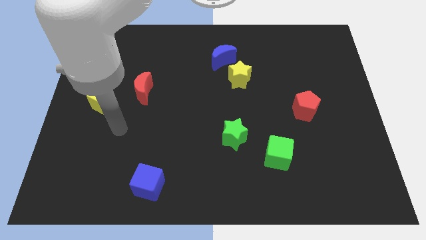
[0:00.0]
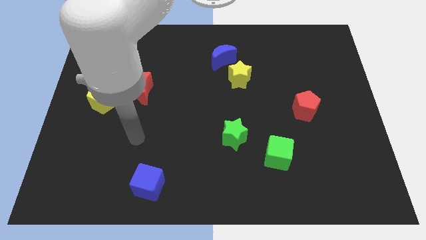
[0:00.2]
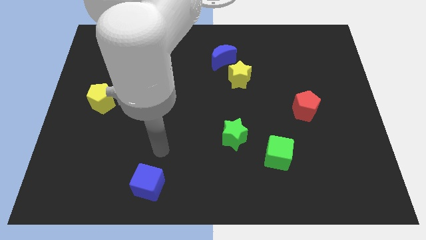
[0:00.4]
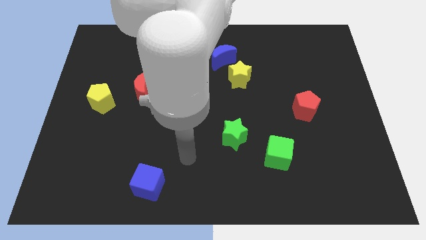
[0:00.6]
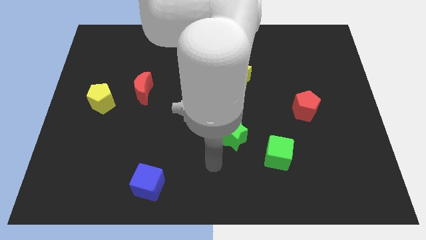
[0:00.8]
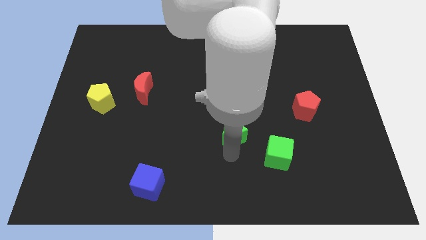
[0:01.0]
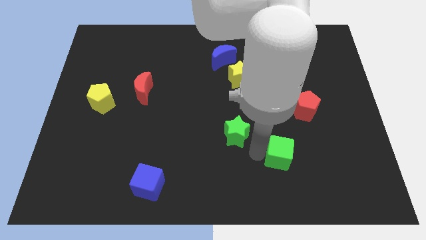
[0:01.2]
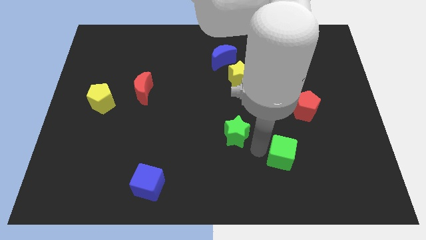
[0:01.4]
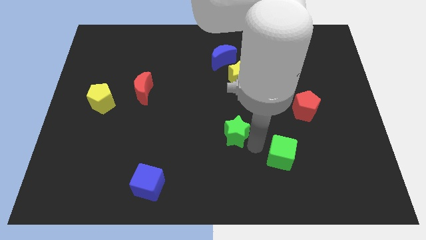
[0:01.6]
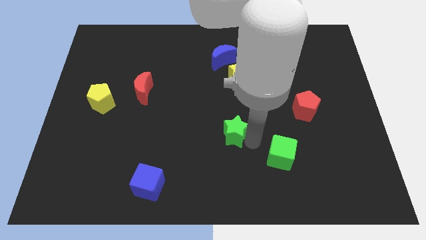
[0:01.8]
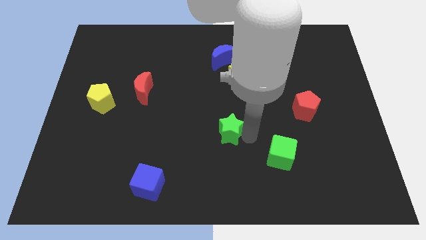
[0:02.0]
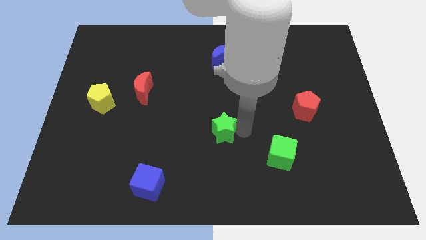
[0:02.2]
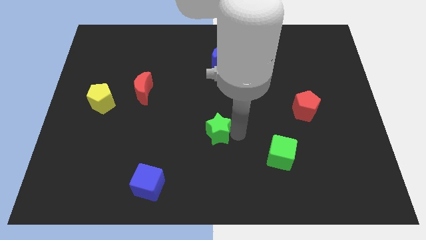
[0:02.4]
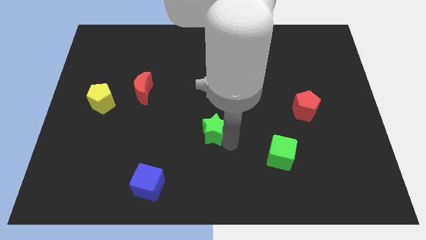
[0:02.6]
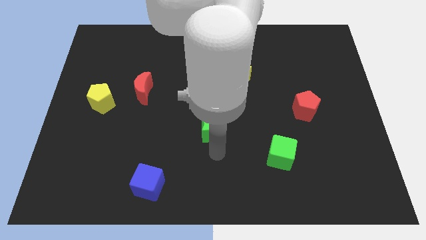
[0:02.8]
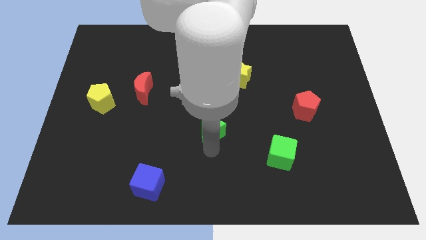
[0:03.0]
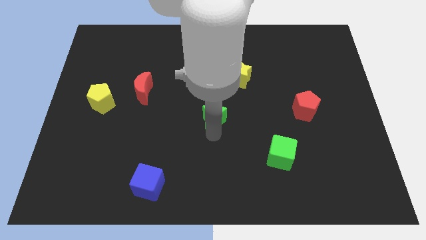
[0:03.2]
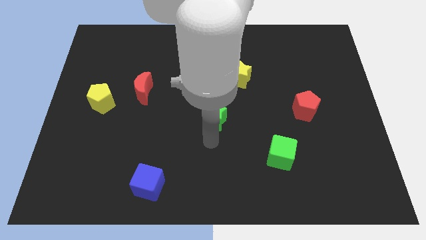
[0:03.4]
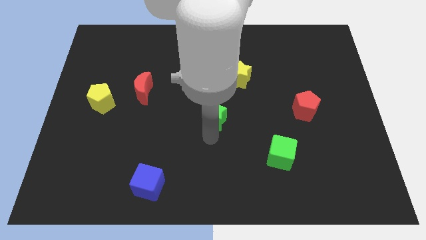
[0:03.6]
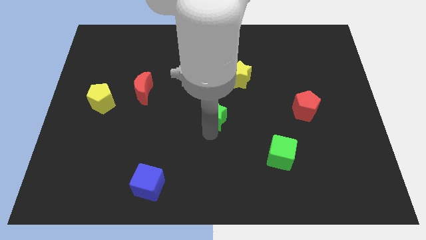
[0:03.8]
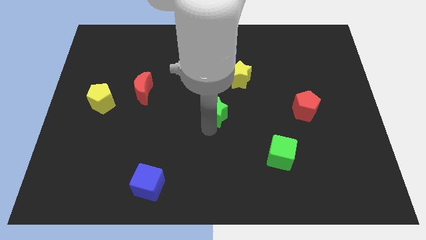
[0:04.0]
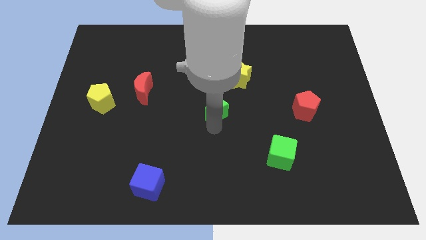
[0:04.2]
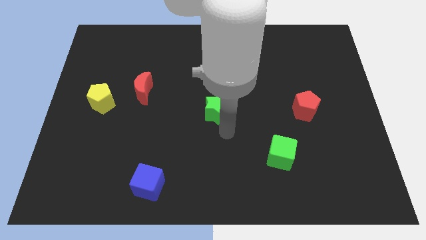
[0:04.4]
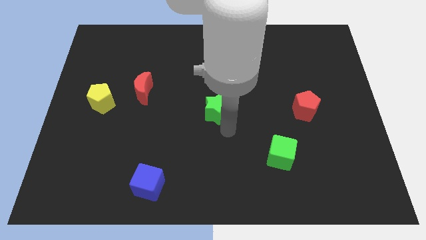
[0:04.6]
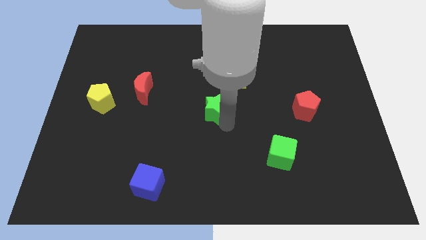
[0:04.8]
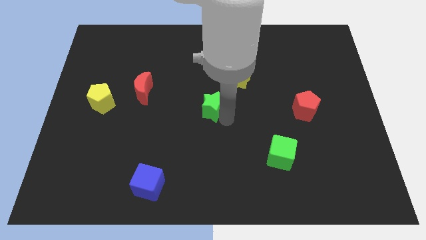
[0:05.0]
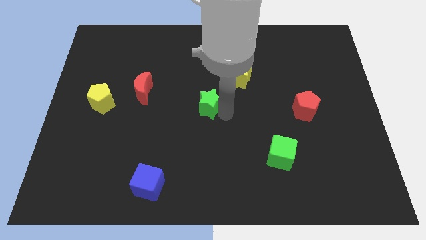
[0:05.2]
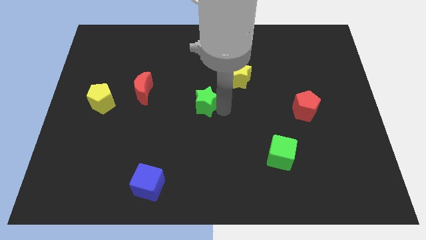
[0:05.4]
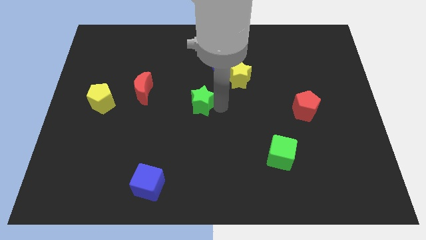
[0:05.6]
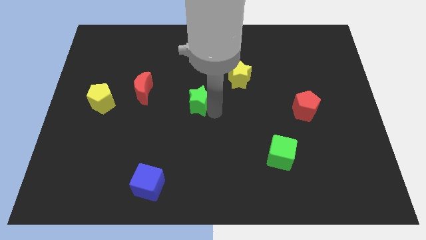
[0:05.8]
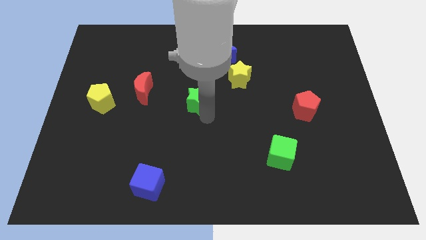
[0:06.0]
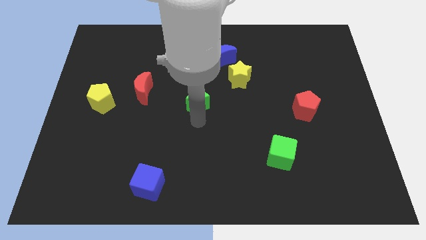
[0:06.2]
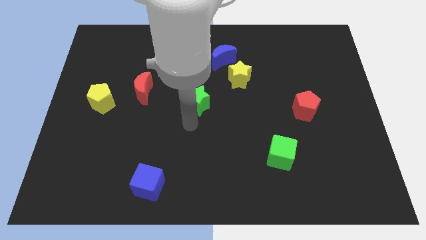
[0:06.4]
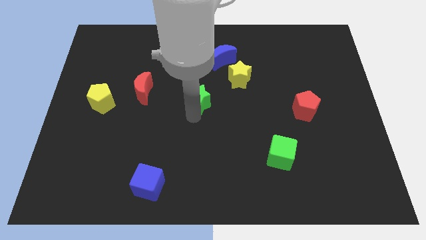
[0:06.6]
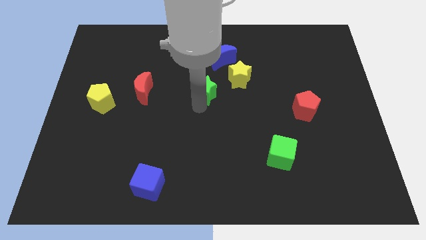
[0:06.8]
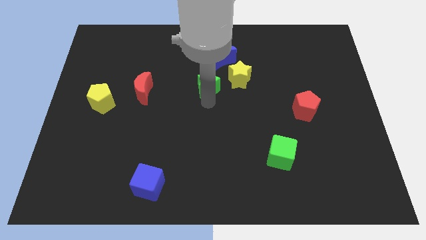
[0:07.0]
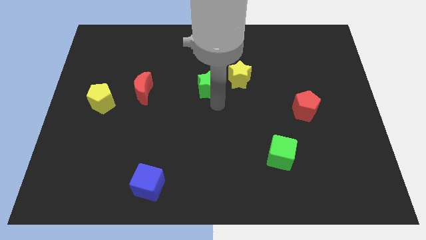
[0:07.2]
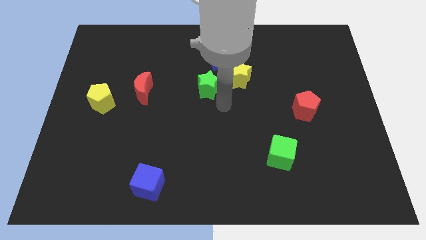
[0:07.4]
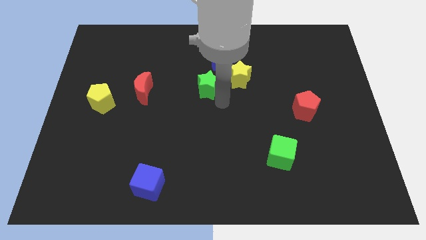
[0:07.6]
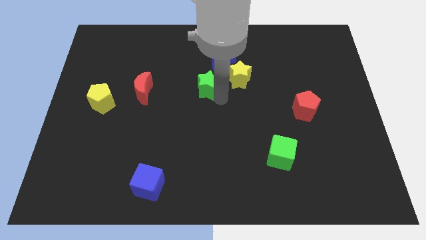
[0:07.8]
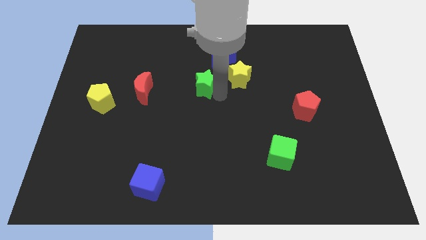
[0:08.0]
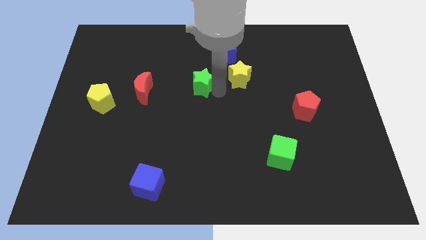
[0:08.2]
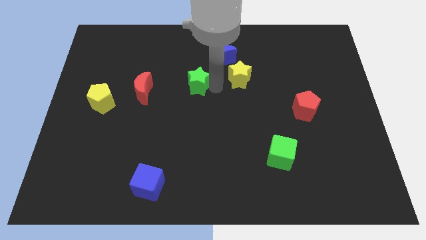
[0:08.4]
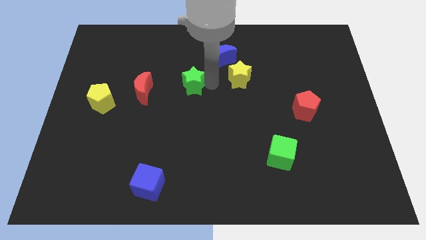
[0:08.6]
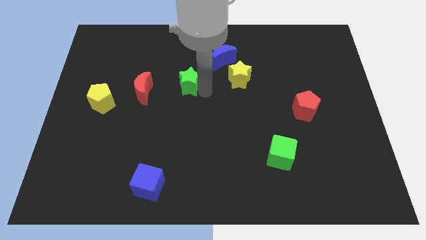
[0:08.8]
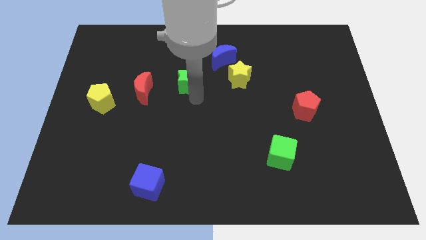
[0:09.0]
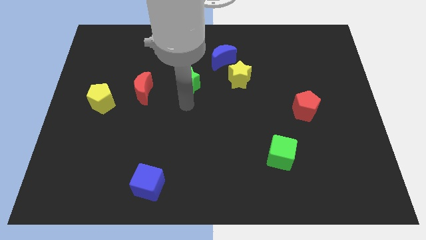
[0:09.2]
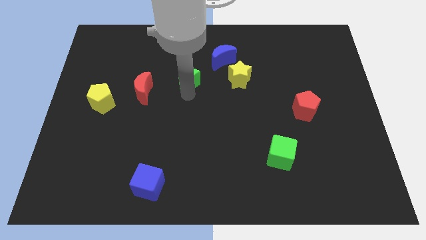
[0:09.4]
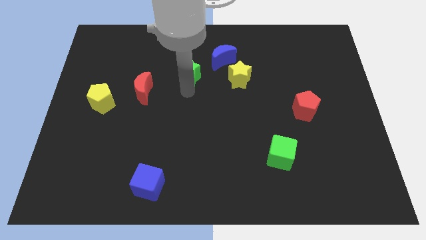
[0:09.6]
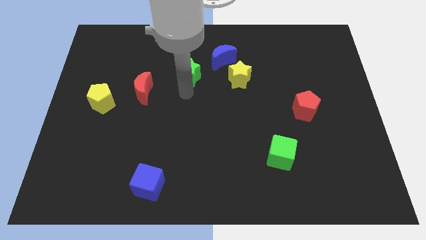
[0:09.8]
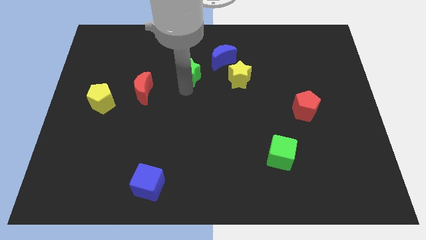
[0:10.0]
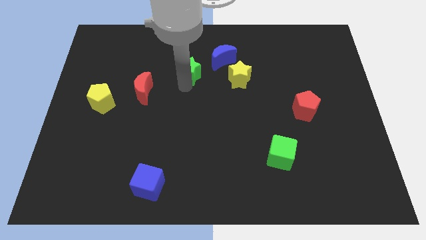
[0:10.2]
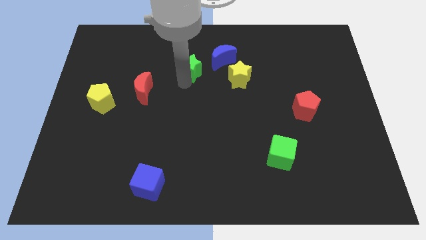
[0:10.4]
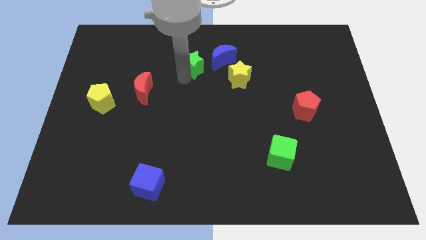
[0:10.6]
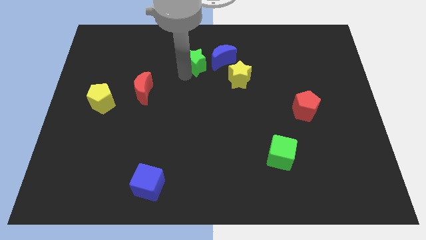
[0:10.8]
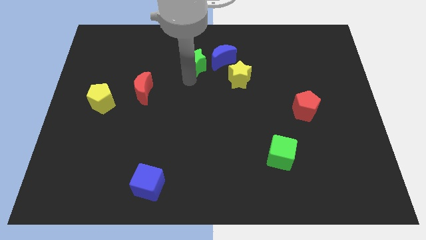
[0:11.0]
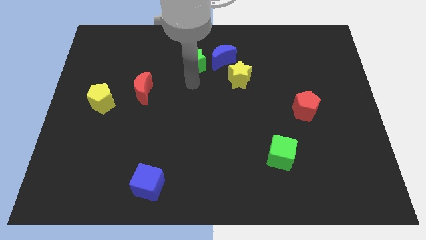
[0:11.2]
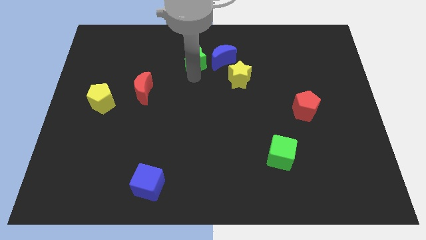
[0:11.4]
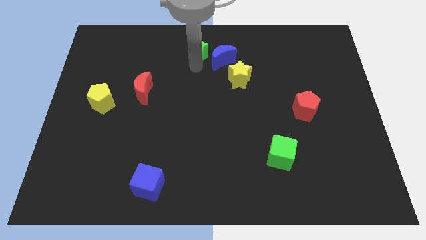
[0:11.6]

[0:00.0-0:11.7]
put the green star to the towards your base

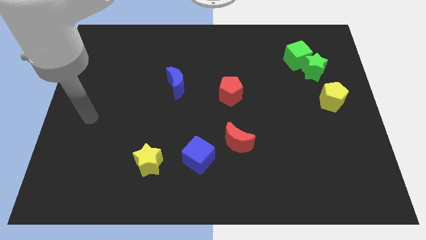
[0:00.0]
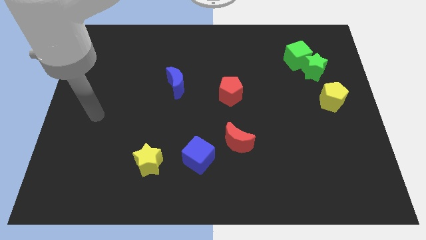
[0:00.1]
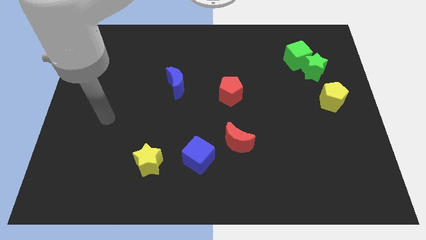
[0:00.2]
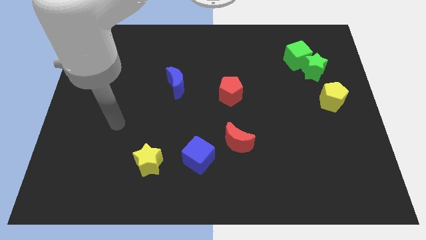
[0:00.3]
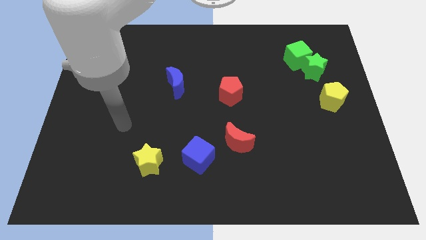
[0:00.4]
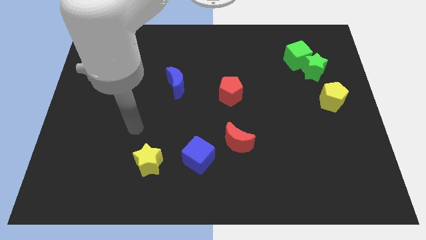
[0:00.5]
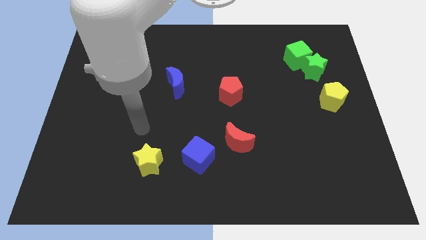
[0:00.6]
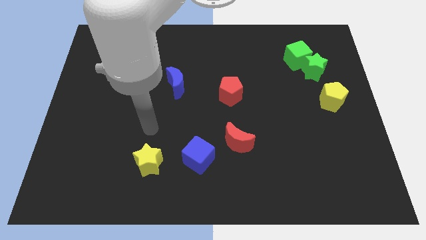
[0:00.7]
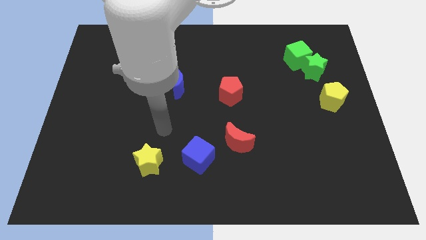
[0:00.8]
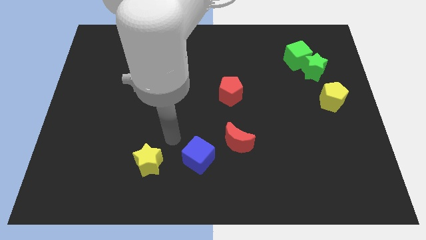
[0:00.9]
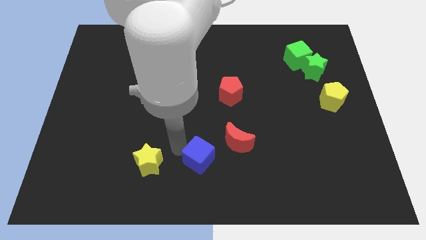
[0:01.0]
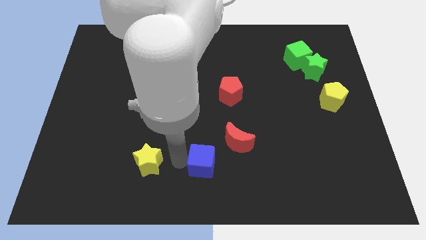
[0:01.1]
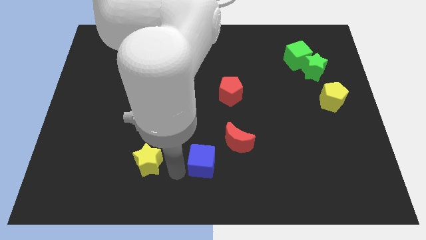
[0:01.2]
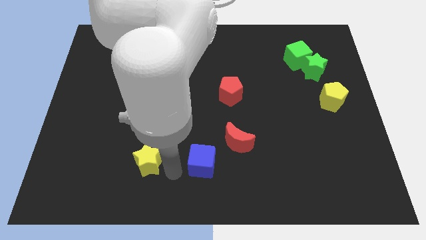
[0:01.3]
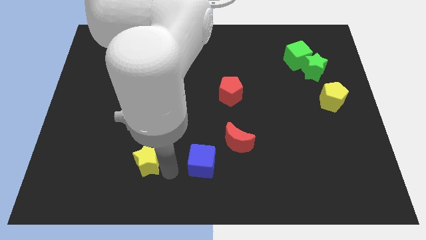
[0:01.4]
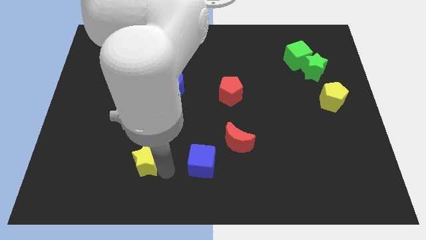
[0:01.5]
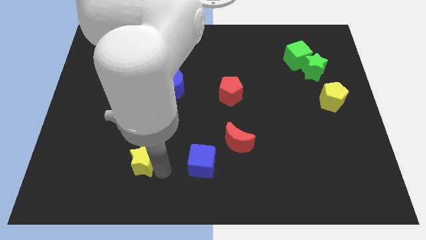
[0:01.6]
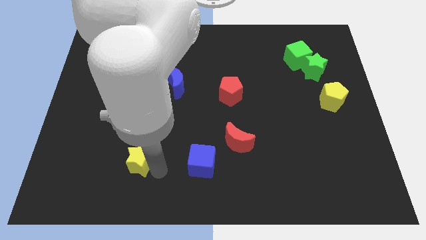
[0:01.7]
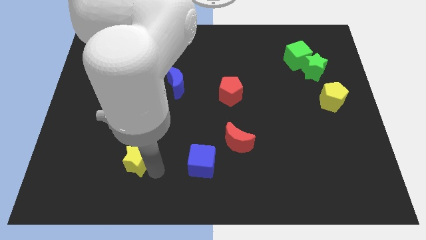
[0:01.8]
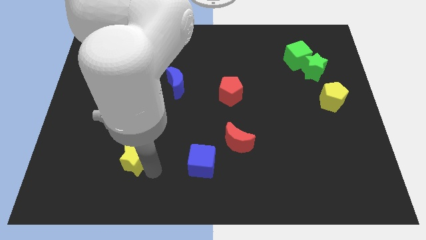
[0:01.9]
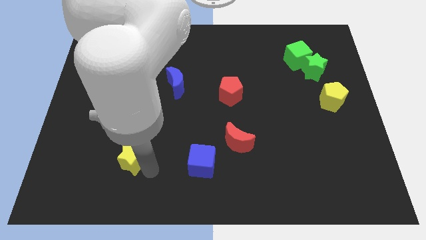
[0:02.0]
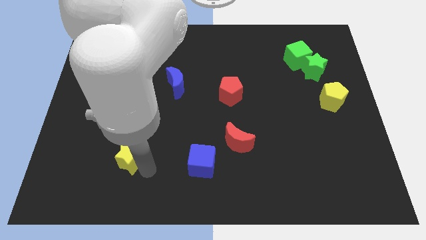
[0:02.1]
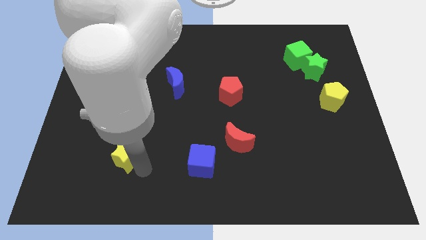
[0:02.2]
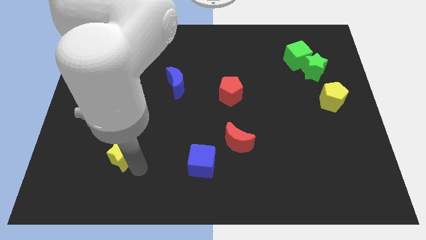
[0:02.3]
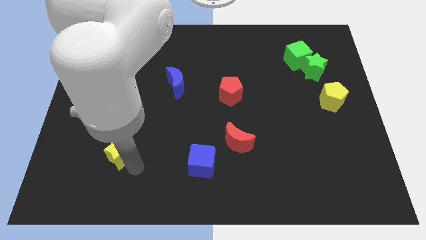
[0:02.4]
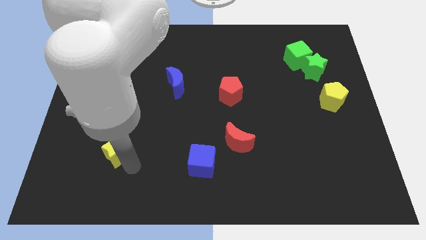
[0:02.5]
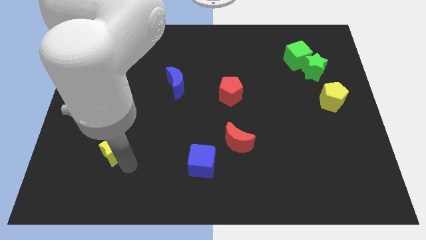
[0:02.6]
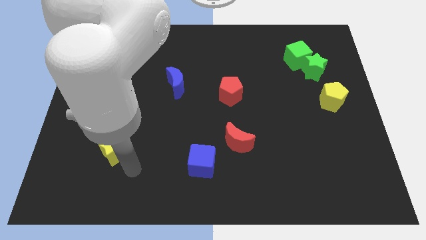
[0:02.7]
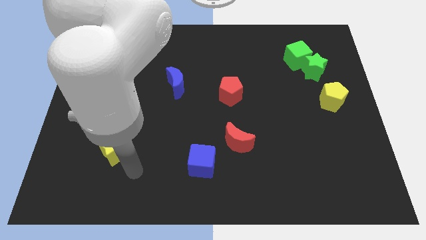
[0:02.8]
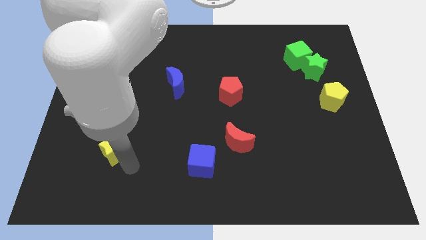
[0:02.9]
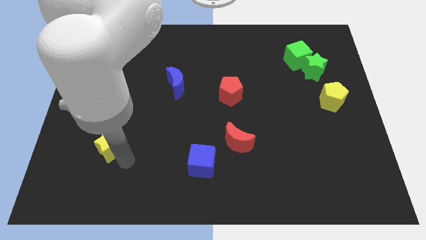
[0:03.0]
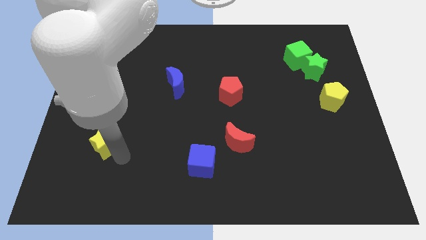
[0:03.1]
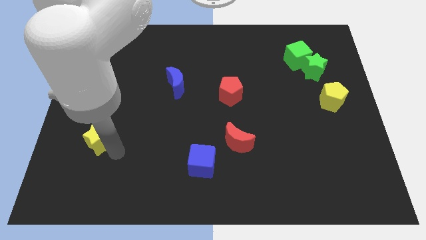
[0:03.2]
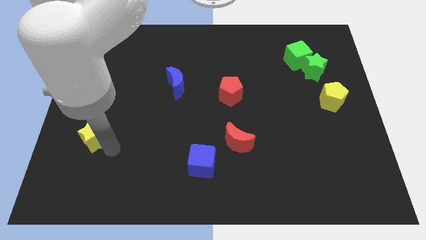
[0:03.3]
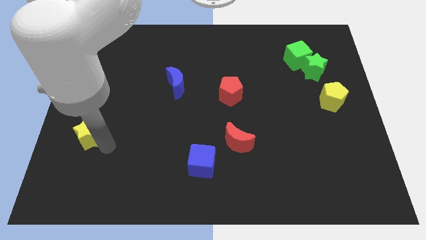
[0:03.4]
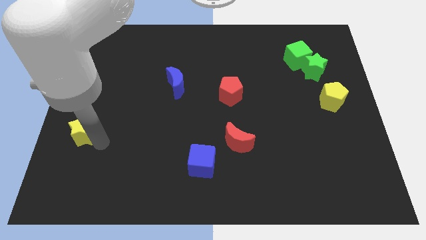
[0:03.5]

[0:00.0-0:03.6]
slide the yellow star to the left side of the board
